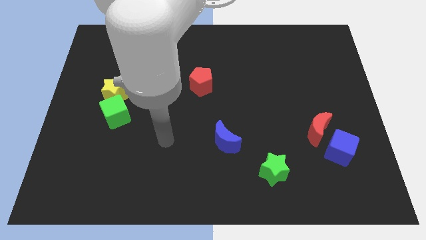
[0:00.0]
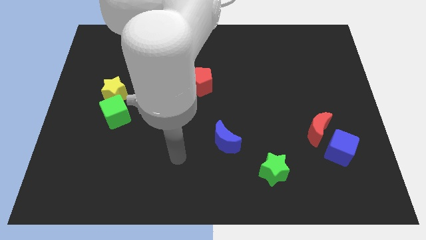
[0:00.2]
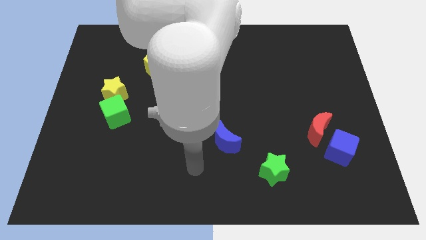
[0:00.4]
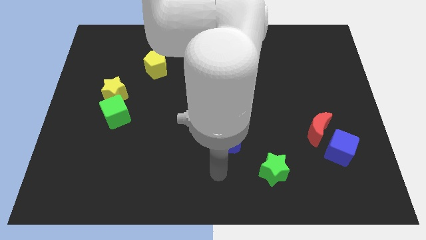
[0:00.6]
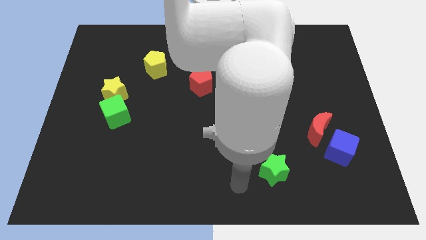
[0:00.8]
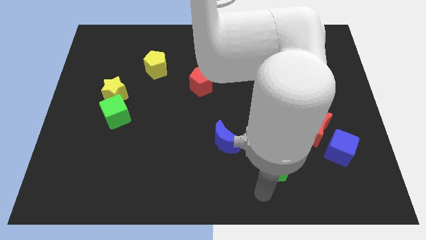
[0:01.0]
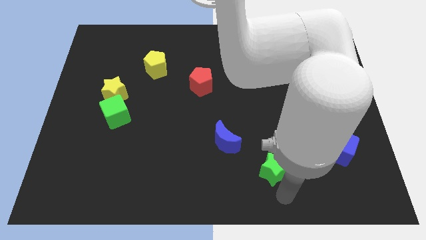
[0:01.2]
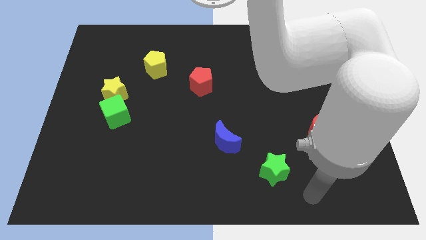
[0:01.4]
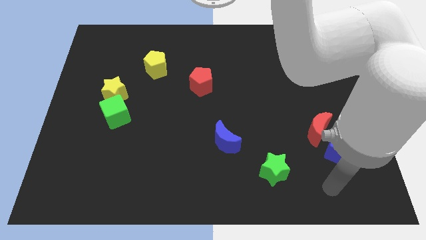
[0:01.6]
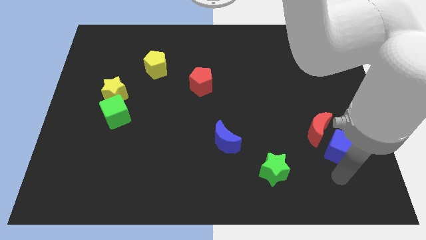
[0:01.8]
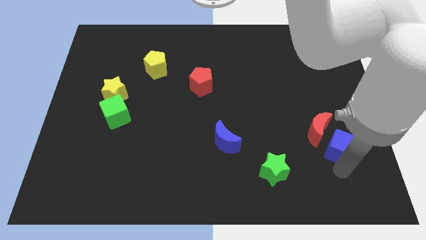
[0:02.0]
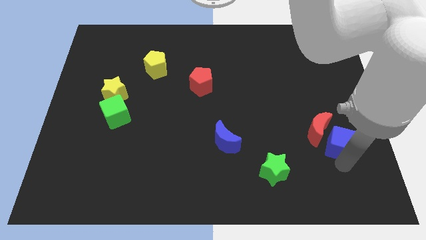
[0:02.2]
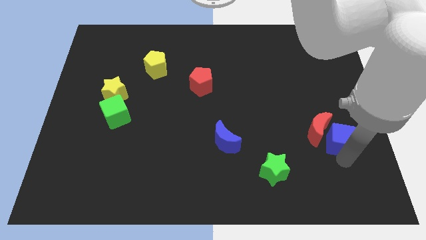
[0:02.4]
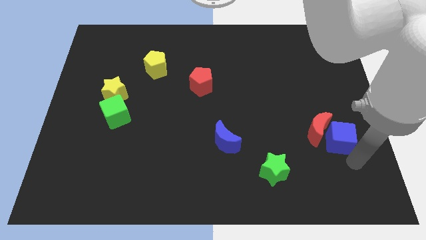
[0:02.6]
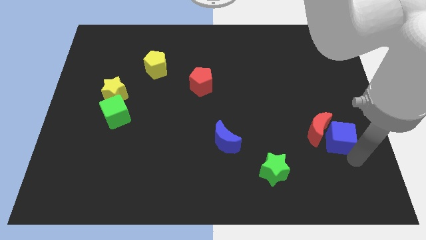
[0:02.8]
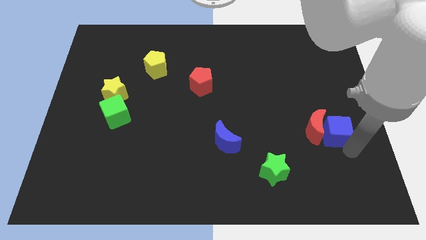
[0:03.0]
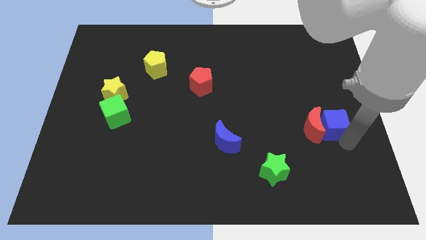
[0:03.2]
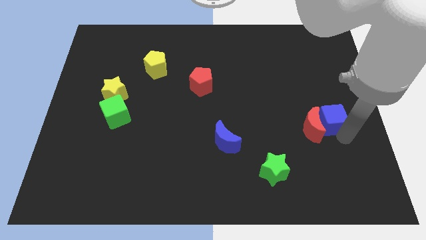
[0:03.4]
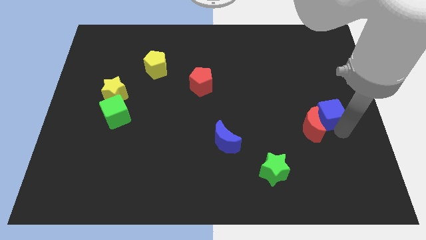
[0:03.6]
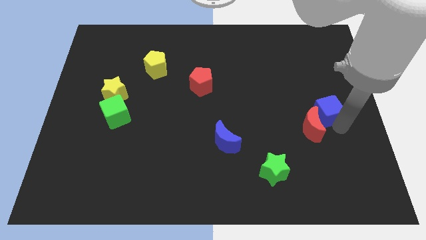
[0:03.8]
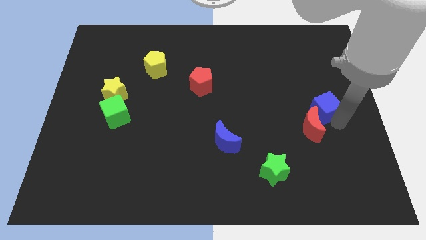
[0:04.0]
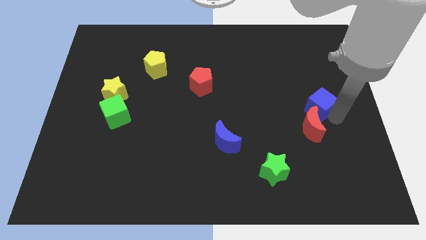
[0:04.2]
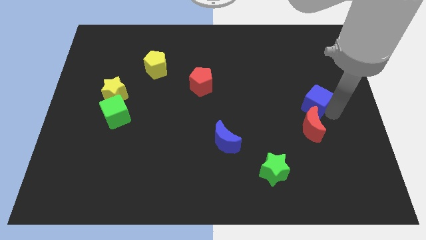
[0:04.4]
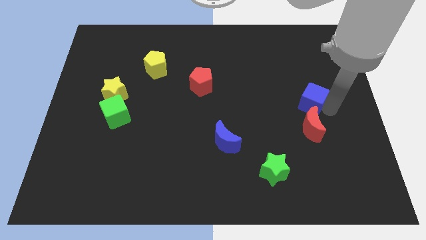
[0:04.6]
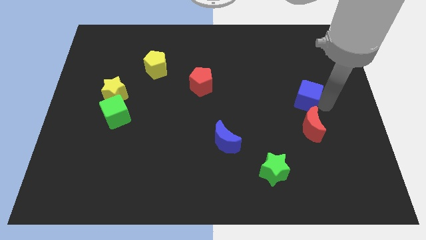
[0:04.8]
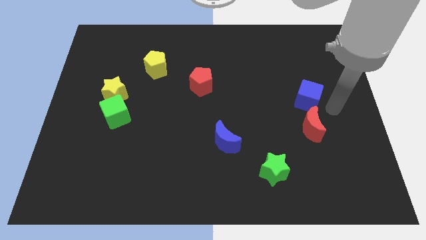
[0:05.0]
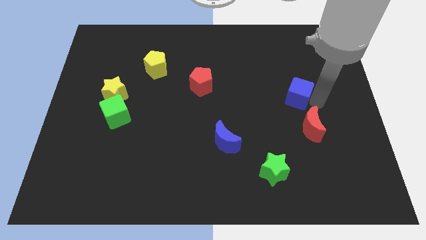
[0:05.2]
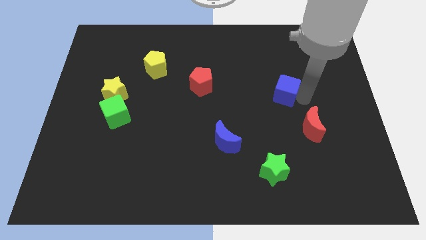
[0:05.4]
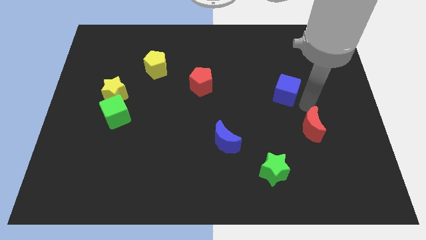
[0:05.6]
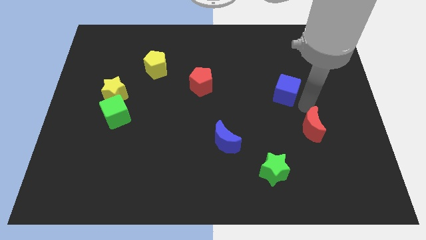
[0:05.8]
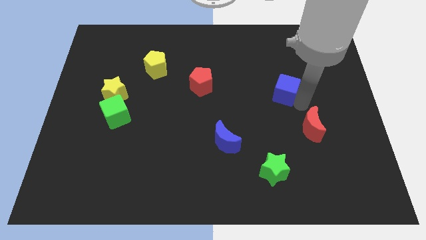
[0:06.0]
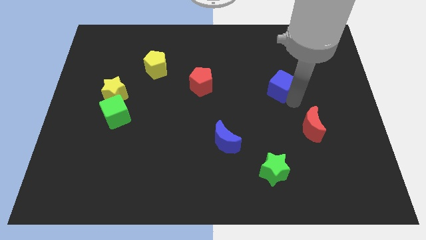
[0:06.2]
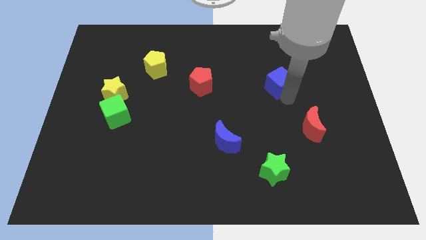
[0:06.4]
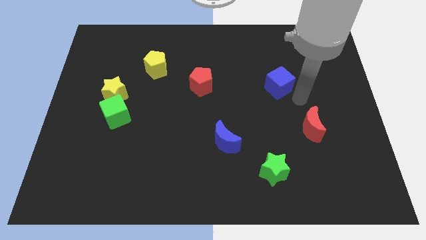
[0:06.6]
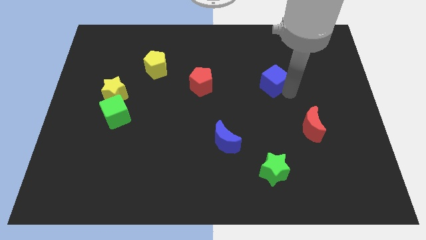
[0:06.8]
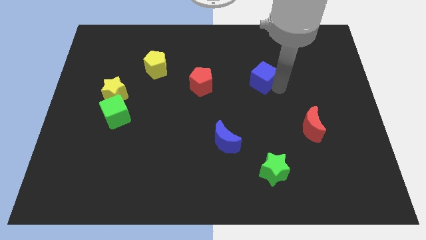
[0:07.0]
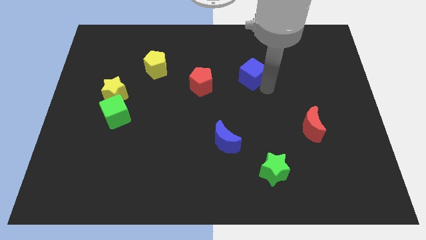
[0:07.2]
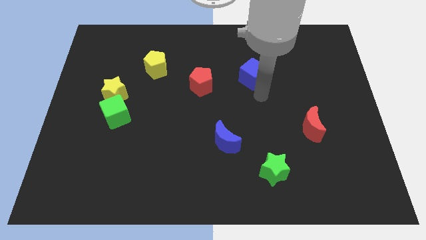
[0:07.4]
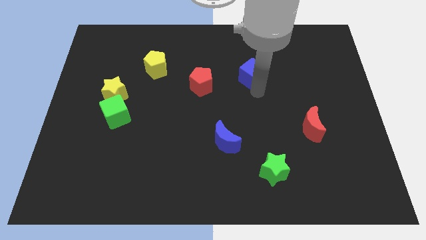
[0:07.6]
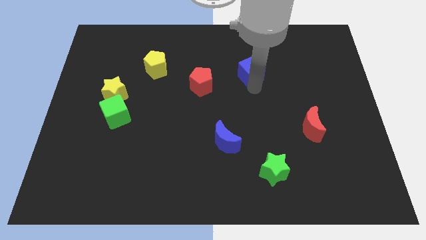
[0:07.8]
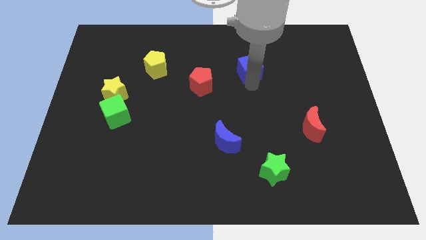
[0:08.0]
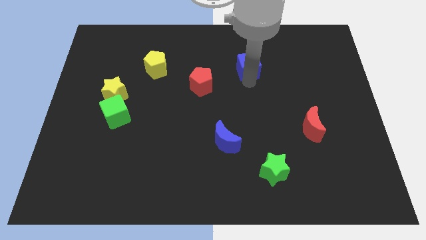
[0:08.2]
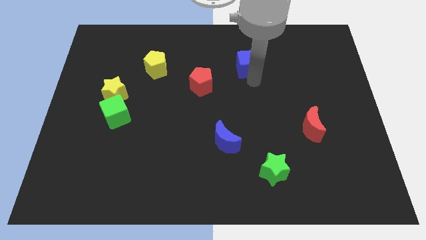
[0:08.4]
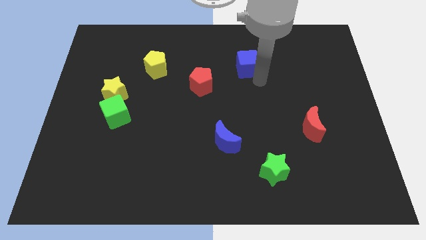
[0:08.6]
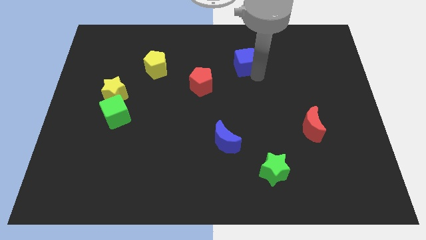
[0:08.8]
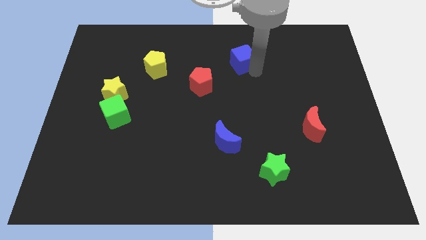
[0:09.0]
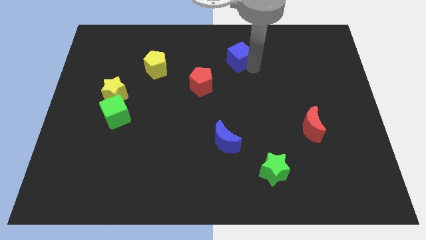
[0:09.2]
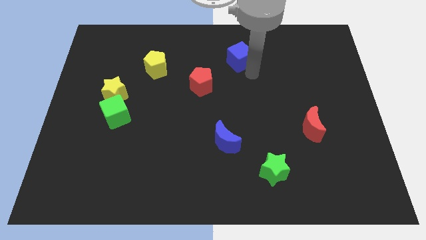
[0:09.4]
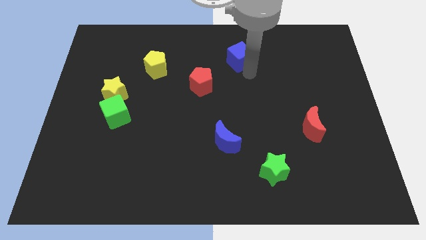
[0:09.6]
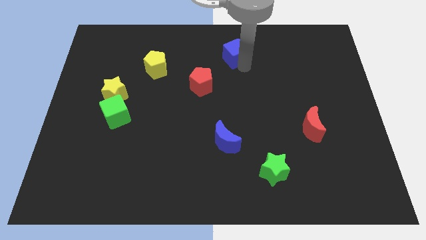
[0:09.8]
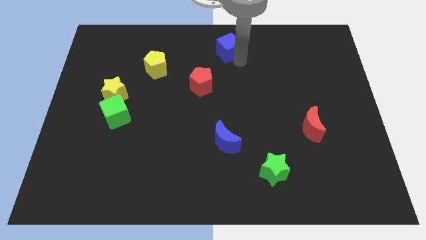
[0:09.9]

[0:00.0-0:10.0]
slide the blue cube to the top side
